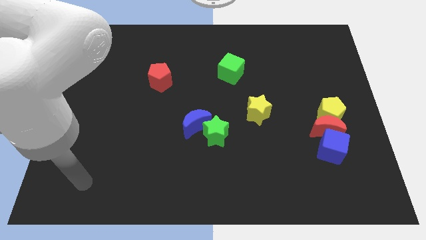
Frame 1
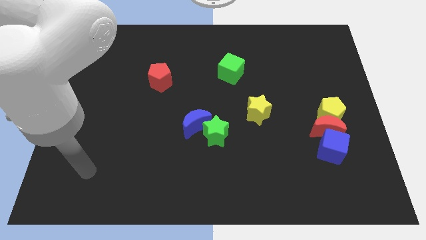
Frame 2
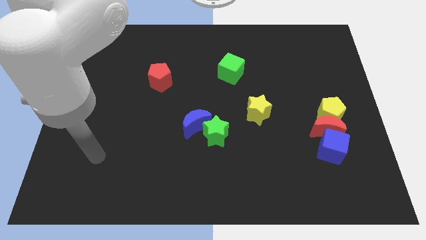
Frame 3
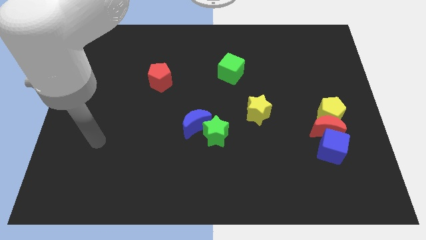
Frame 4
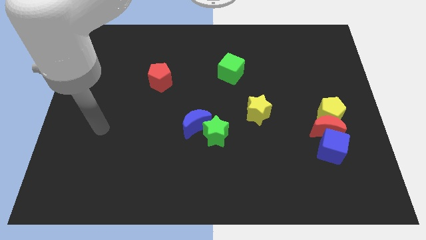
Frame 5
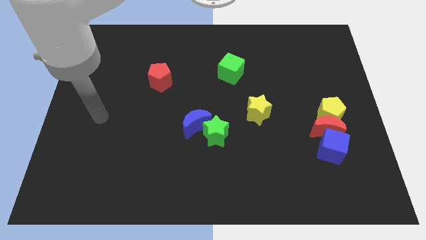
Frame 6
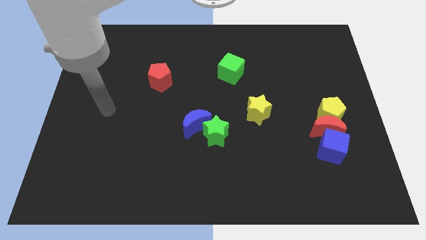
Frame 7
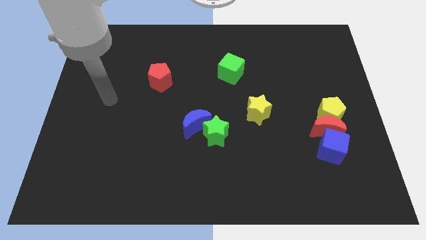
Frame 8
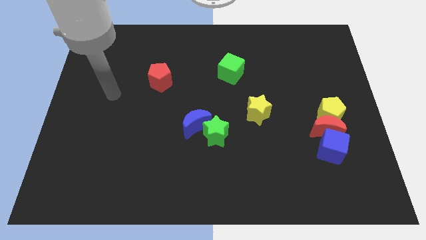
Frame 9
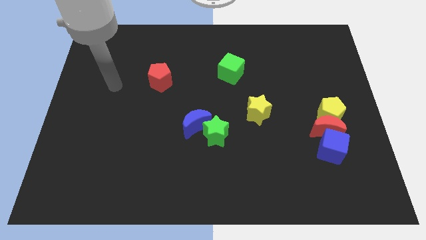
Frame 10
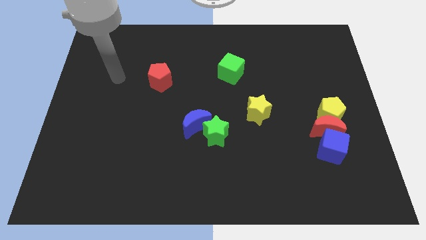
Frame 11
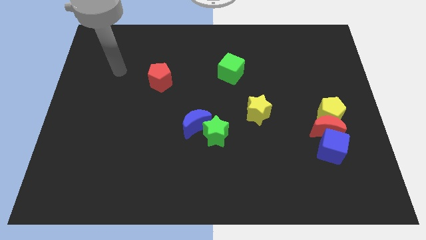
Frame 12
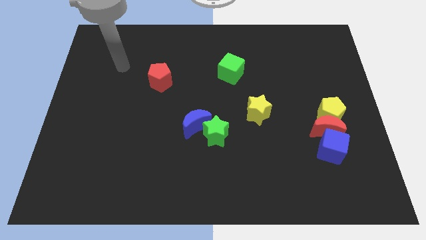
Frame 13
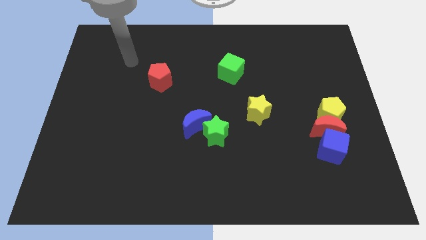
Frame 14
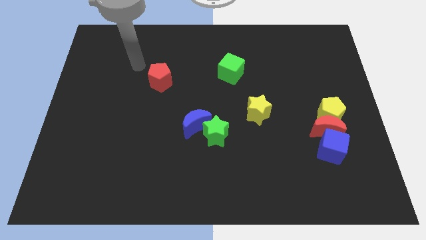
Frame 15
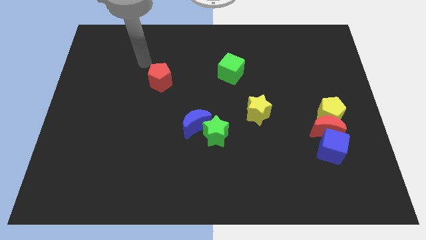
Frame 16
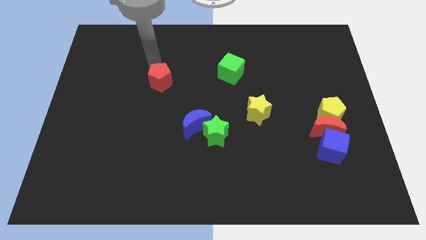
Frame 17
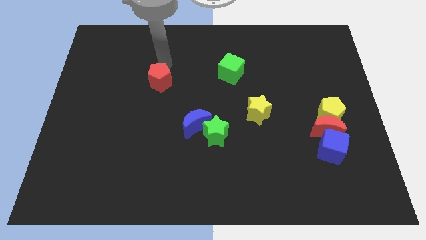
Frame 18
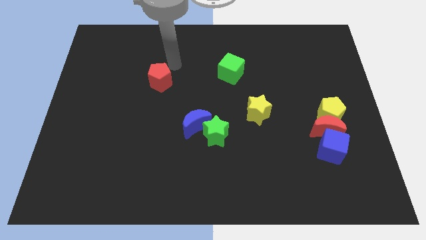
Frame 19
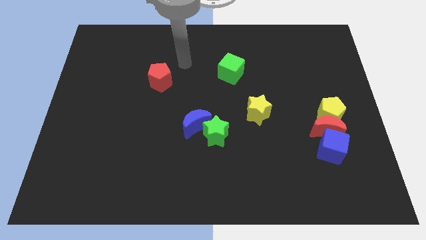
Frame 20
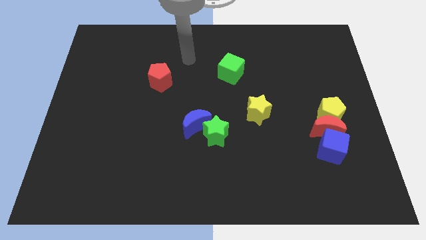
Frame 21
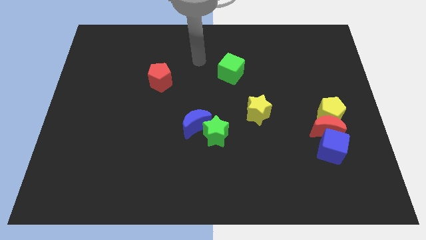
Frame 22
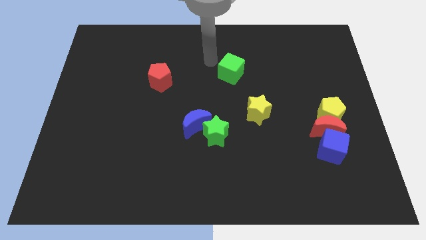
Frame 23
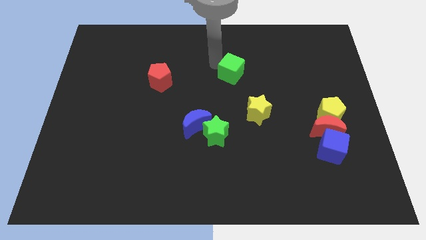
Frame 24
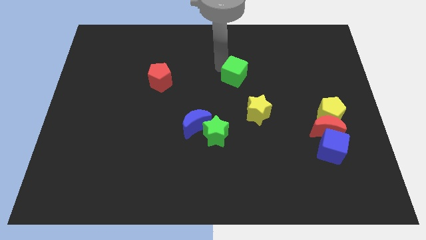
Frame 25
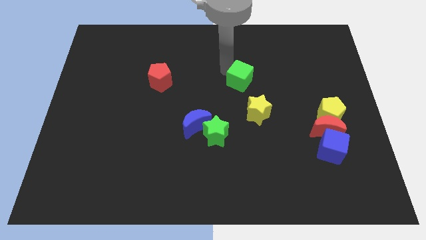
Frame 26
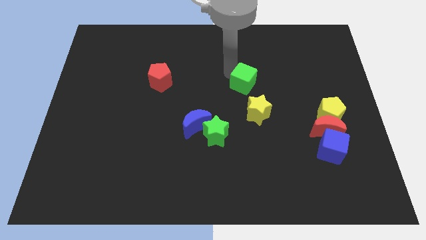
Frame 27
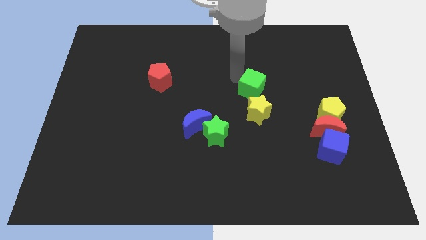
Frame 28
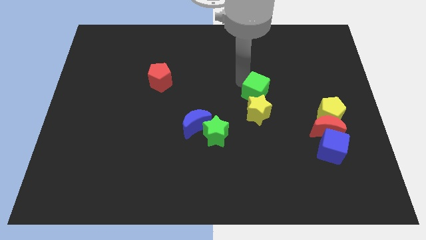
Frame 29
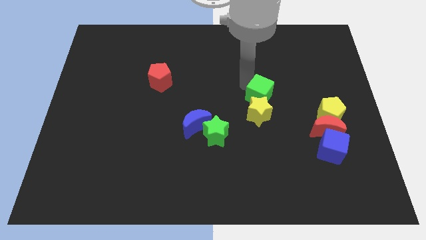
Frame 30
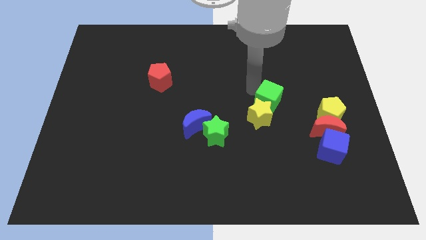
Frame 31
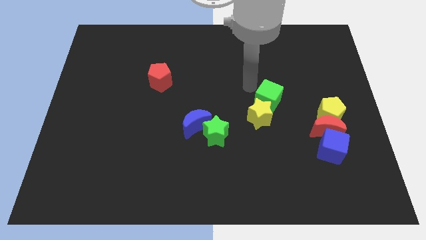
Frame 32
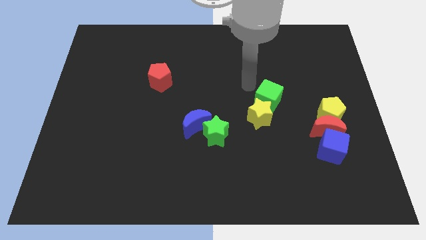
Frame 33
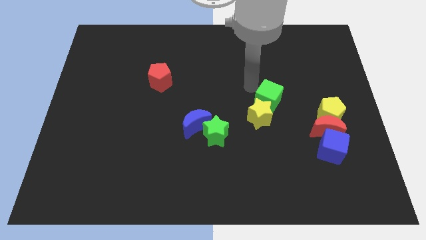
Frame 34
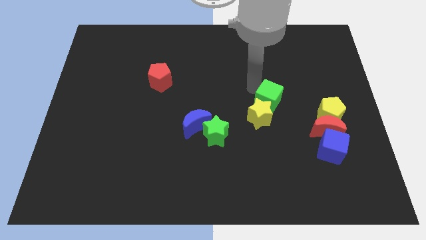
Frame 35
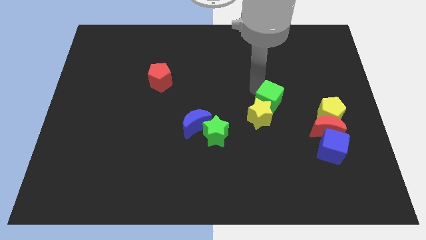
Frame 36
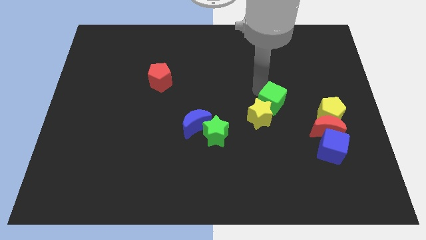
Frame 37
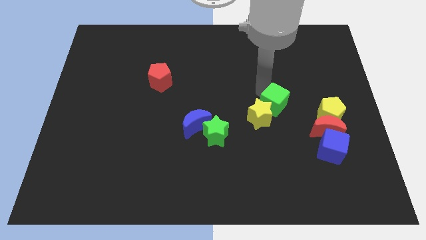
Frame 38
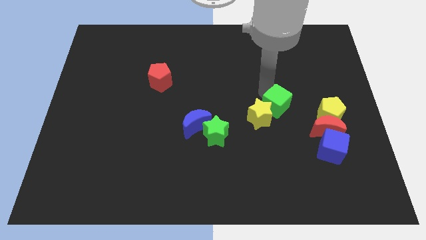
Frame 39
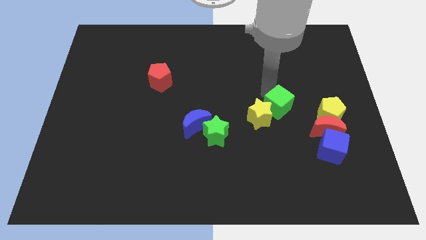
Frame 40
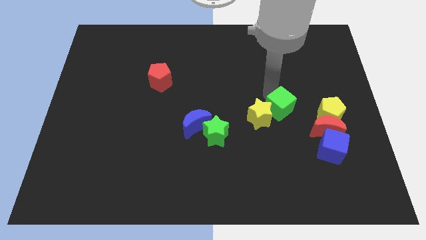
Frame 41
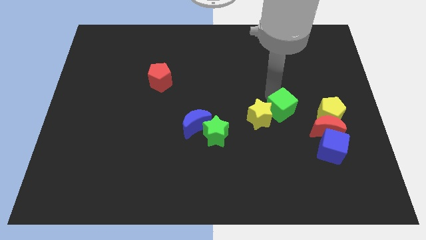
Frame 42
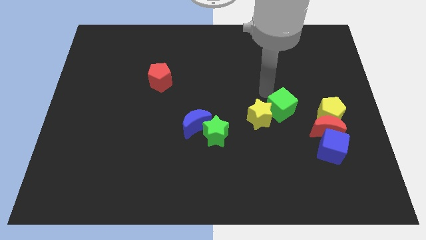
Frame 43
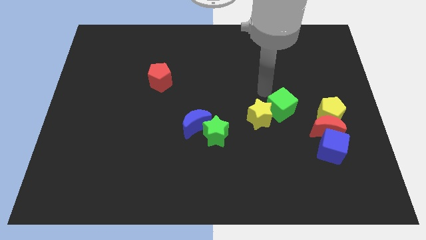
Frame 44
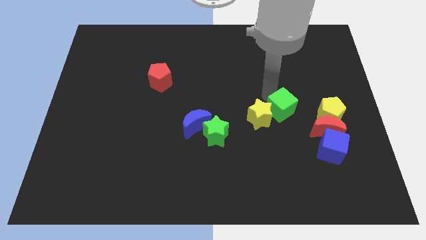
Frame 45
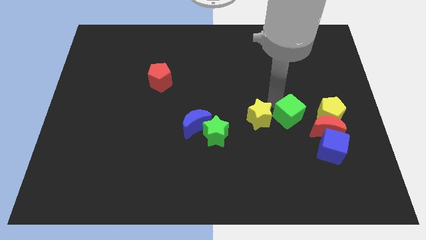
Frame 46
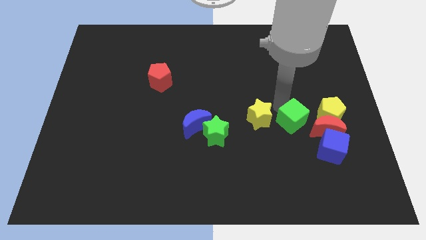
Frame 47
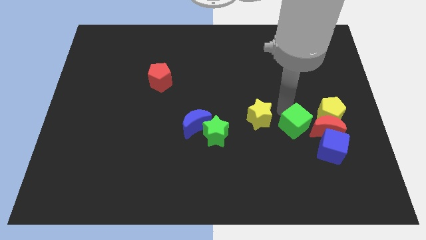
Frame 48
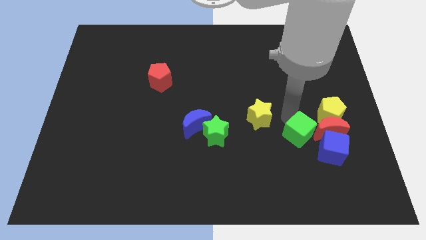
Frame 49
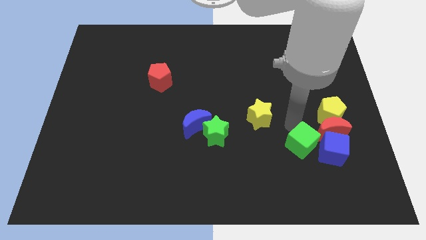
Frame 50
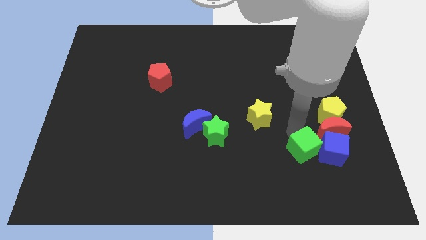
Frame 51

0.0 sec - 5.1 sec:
put the green cube to the blue cube

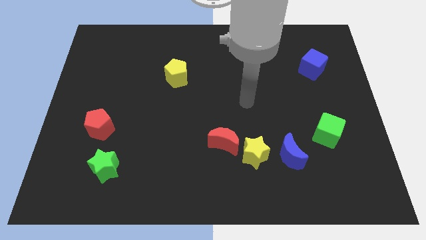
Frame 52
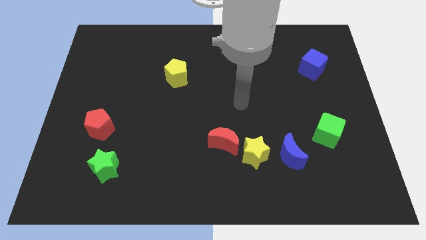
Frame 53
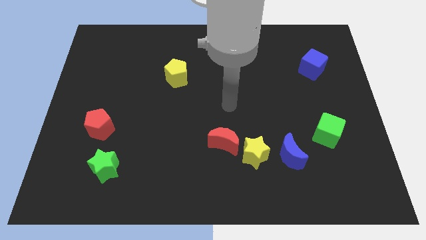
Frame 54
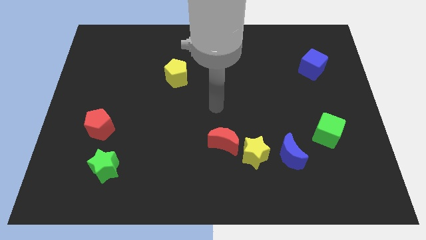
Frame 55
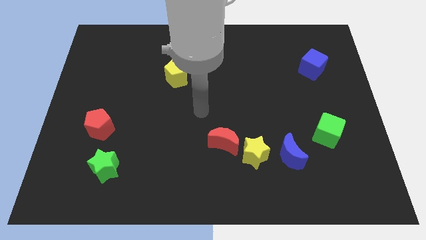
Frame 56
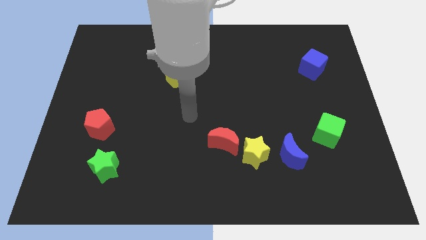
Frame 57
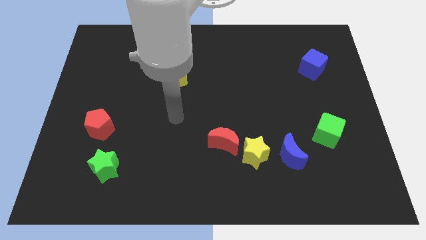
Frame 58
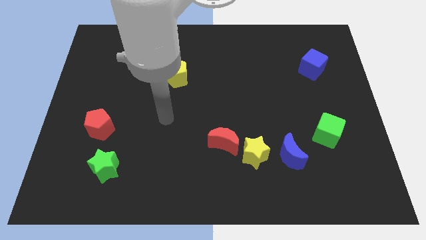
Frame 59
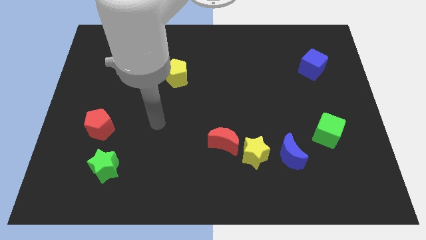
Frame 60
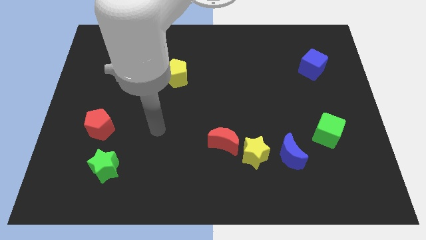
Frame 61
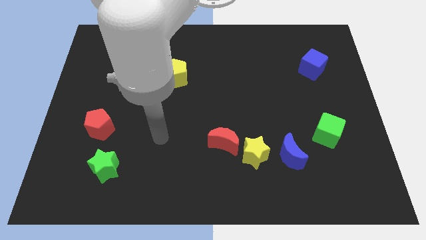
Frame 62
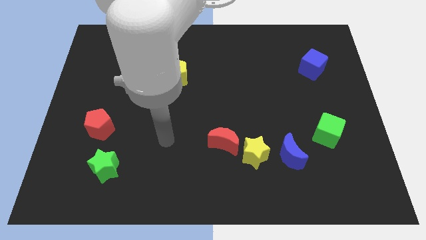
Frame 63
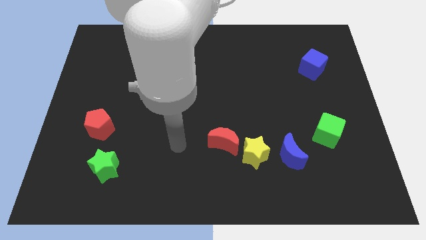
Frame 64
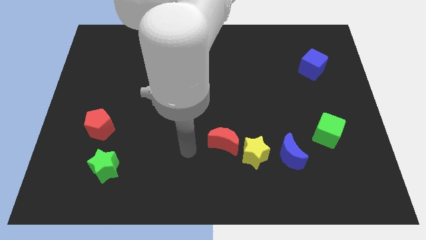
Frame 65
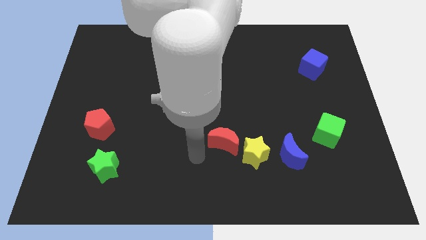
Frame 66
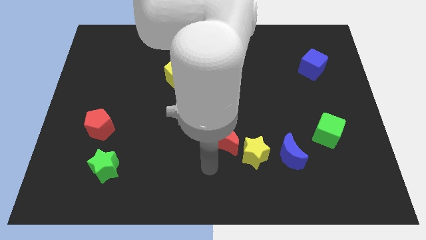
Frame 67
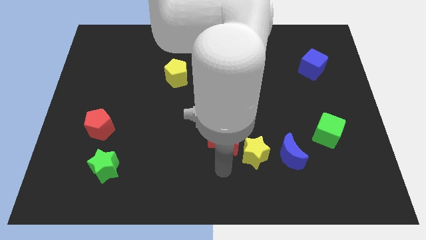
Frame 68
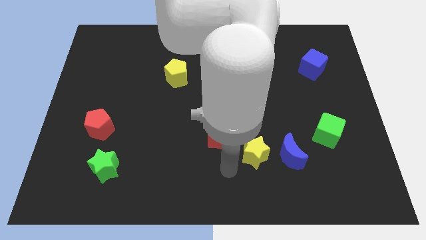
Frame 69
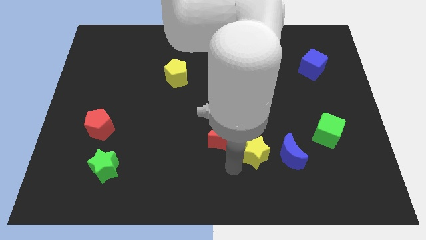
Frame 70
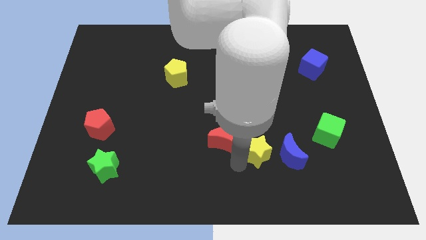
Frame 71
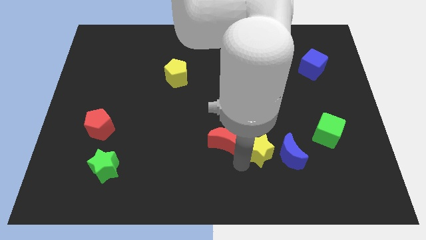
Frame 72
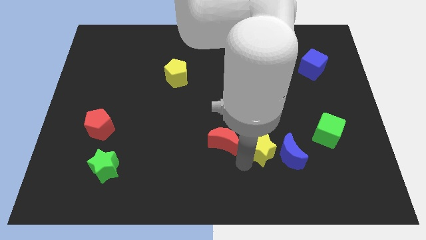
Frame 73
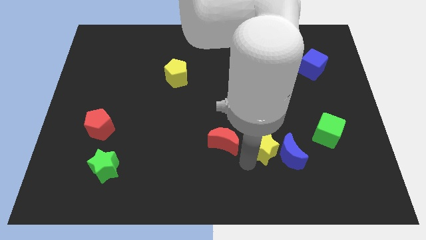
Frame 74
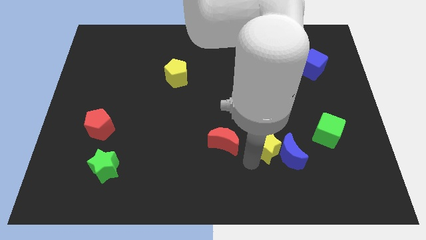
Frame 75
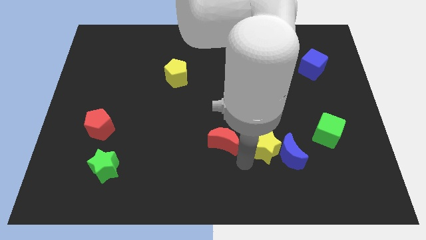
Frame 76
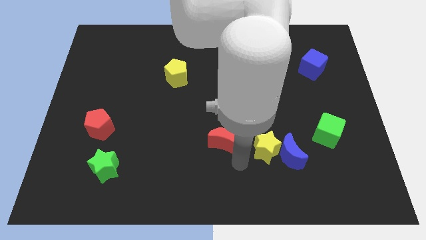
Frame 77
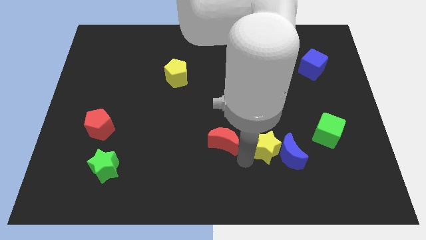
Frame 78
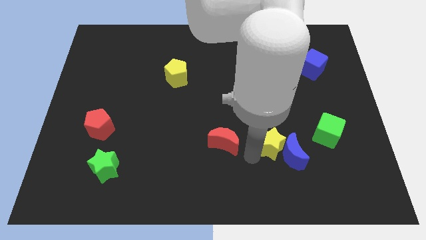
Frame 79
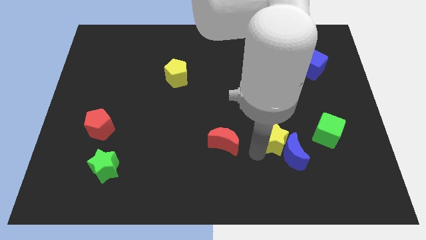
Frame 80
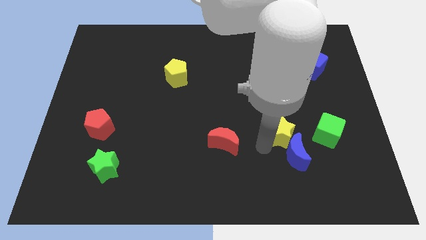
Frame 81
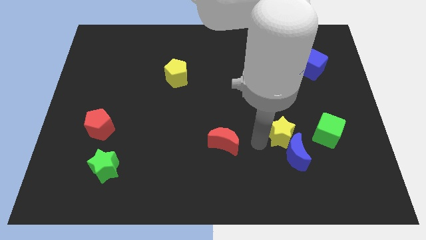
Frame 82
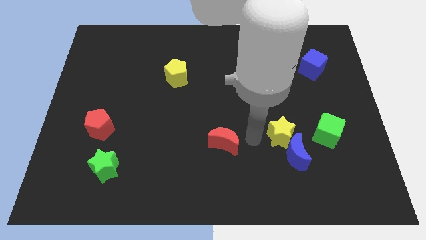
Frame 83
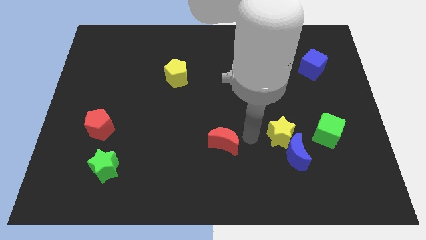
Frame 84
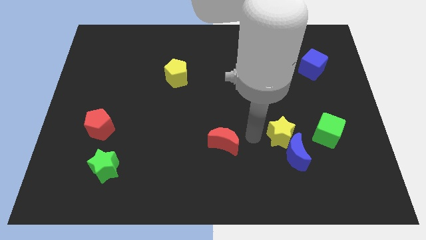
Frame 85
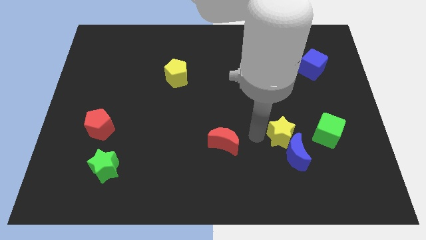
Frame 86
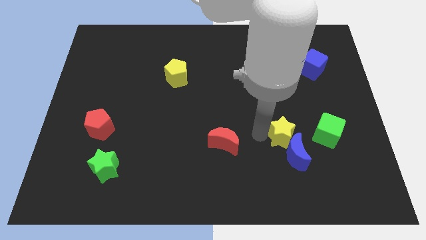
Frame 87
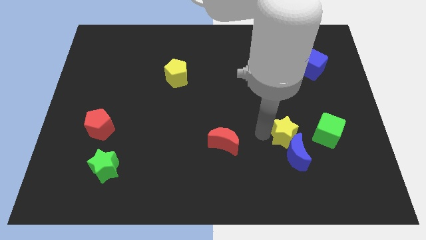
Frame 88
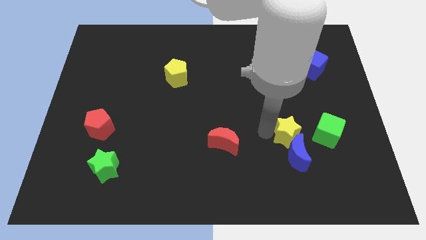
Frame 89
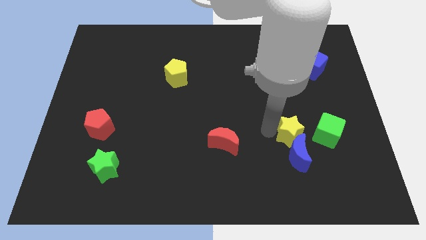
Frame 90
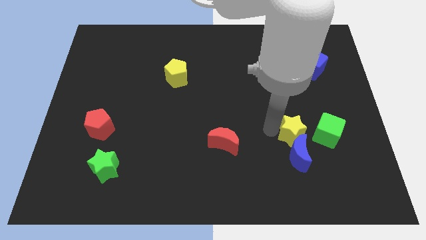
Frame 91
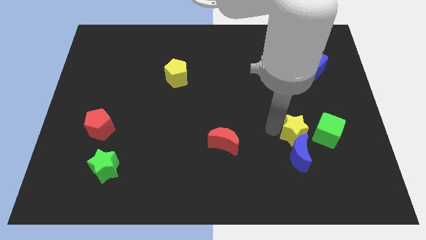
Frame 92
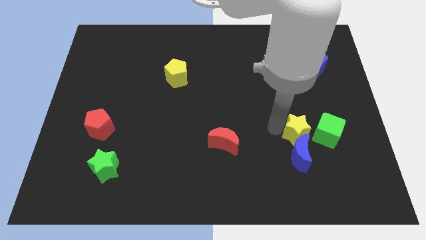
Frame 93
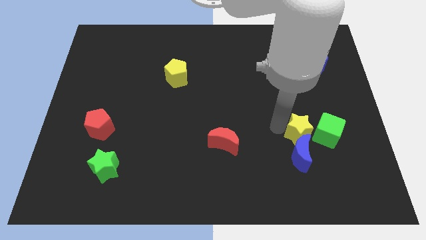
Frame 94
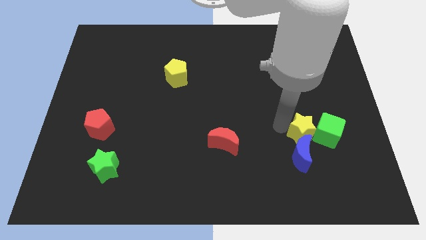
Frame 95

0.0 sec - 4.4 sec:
slide the yellow star close to the green cube
